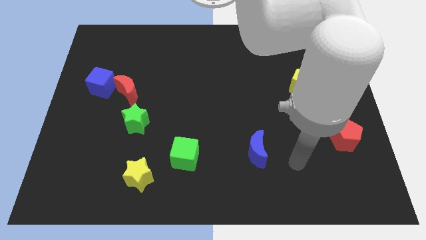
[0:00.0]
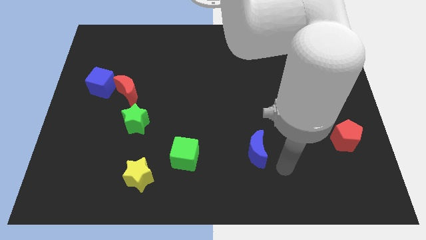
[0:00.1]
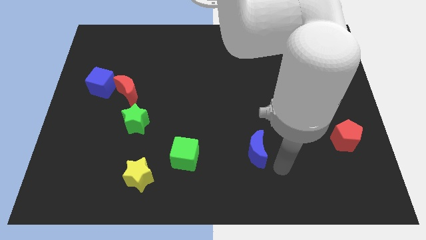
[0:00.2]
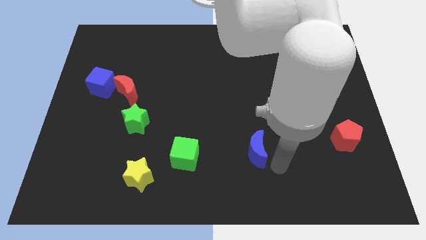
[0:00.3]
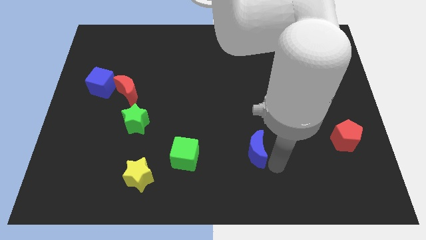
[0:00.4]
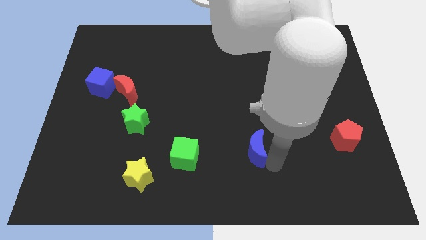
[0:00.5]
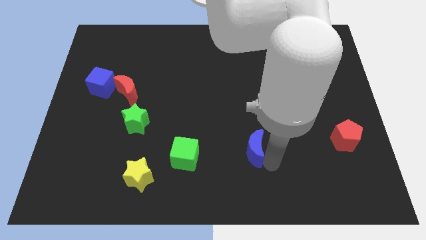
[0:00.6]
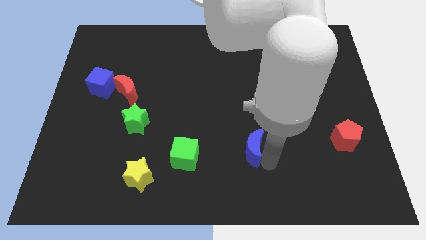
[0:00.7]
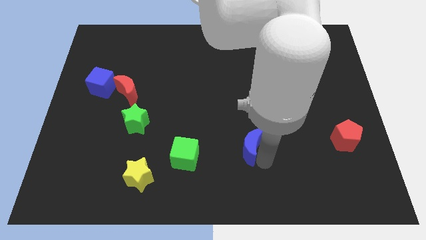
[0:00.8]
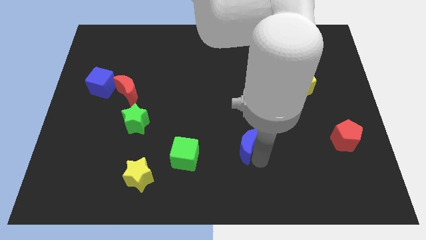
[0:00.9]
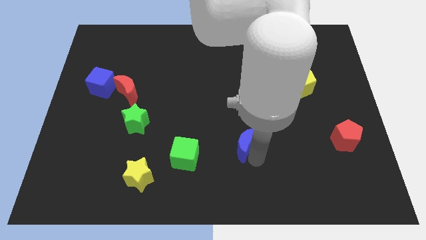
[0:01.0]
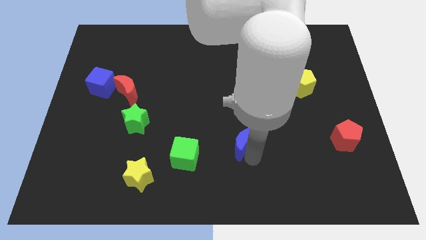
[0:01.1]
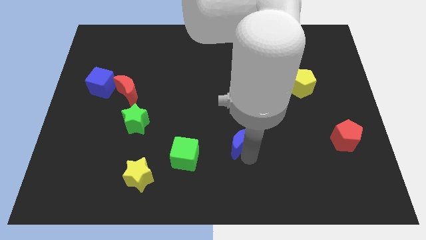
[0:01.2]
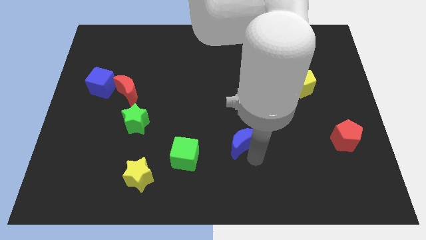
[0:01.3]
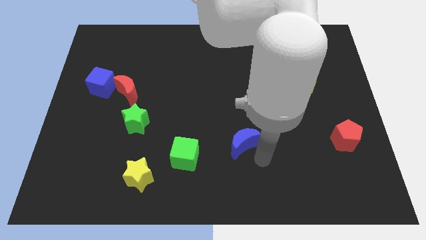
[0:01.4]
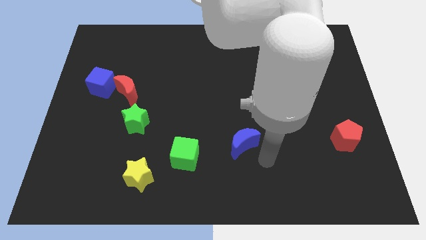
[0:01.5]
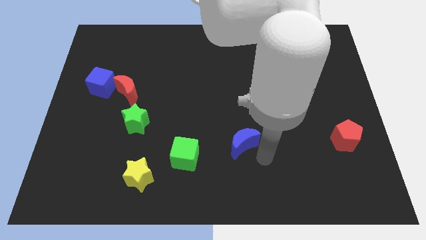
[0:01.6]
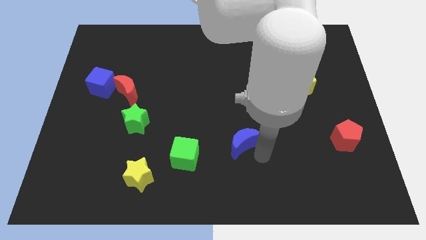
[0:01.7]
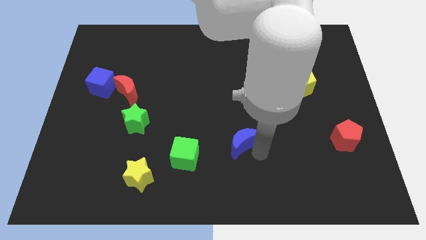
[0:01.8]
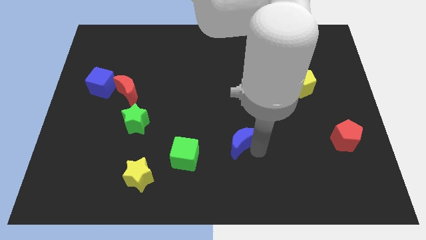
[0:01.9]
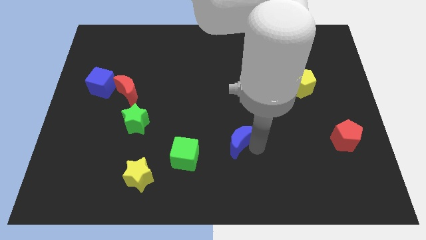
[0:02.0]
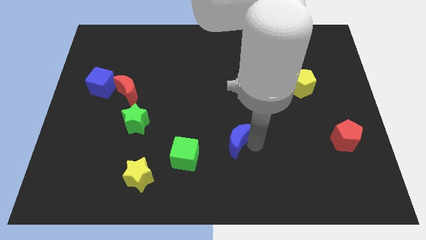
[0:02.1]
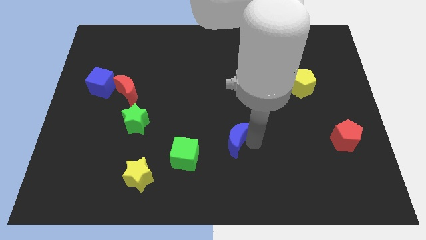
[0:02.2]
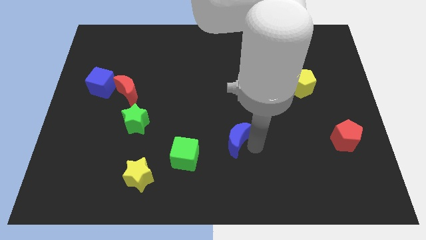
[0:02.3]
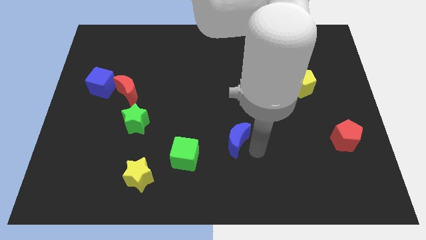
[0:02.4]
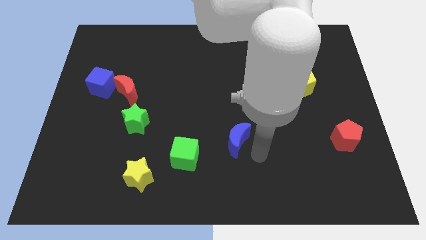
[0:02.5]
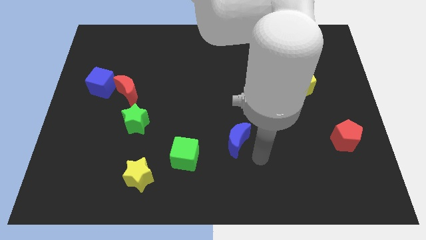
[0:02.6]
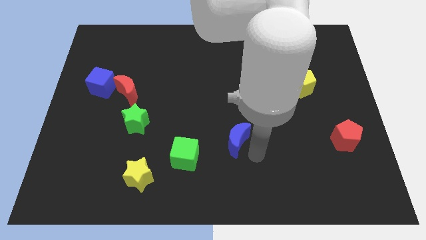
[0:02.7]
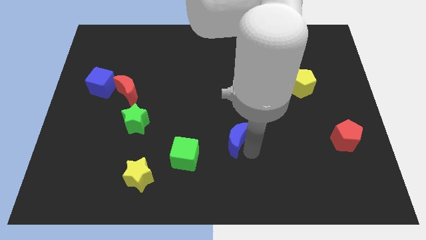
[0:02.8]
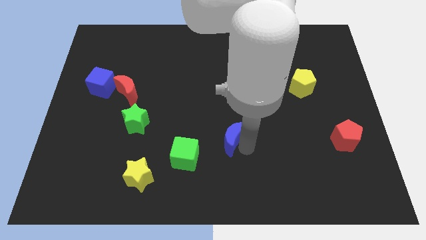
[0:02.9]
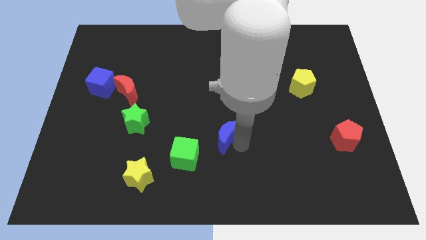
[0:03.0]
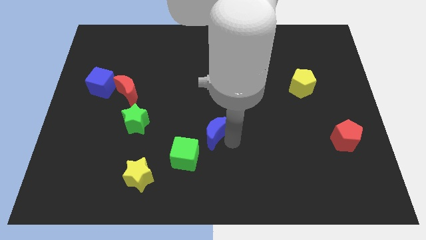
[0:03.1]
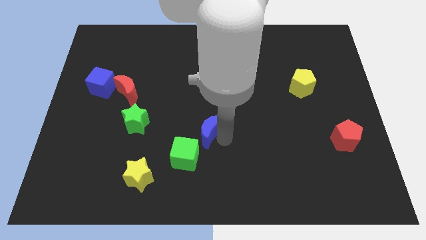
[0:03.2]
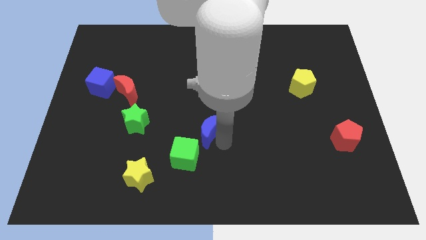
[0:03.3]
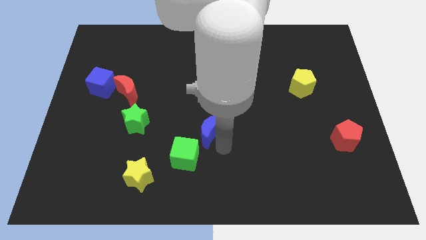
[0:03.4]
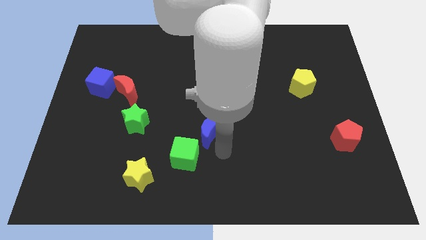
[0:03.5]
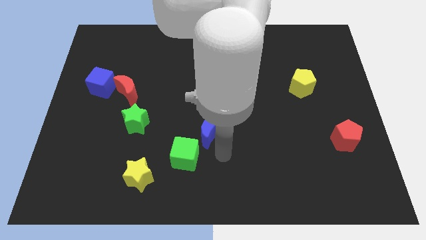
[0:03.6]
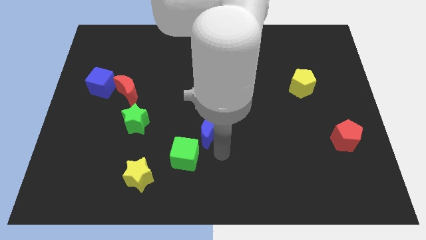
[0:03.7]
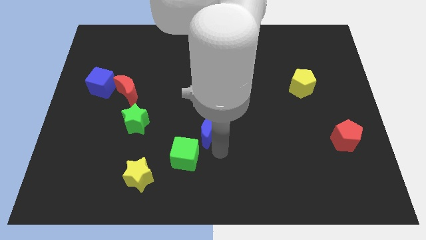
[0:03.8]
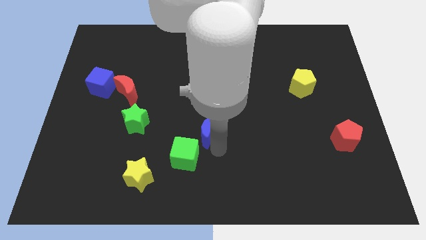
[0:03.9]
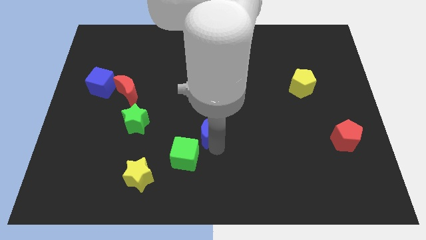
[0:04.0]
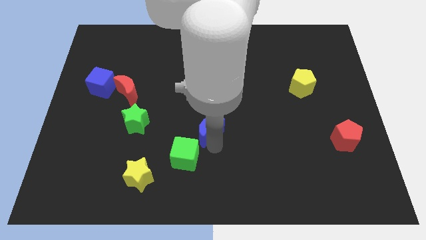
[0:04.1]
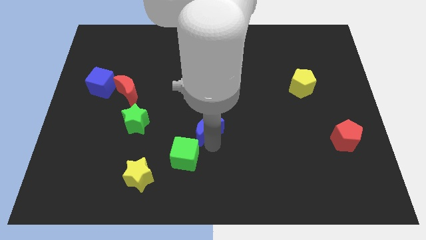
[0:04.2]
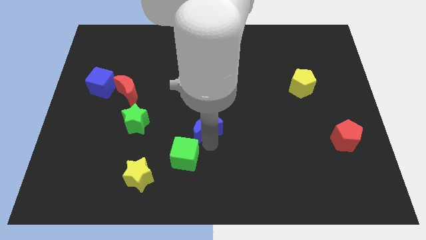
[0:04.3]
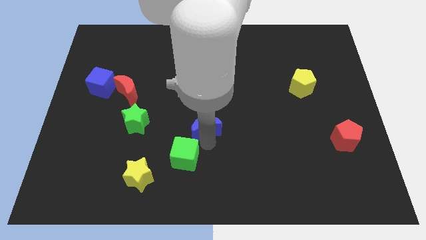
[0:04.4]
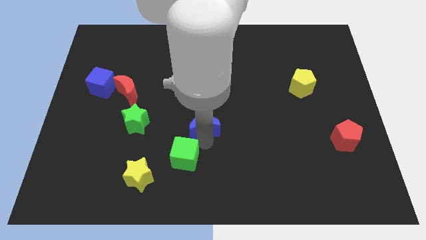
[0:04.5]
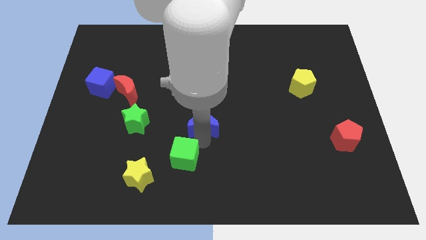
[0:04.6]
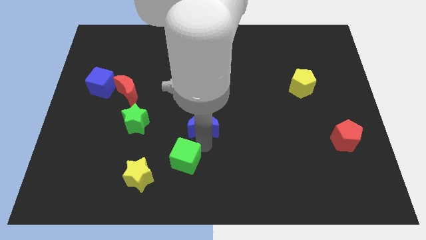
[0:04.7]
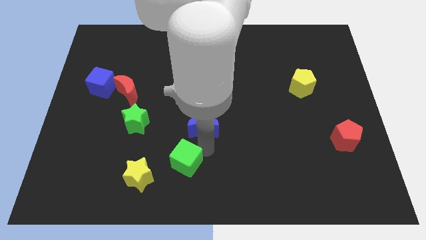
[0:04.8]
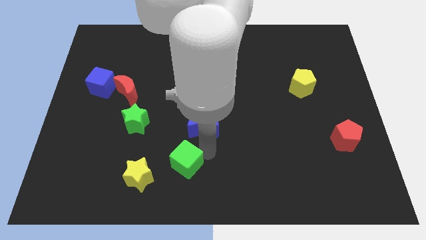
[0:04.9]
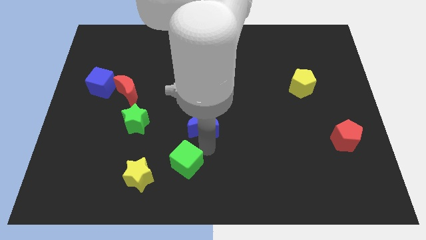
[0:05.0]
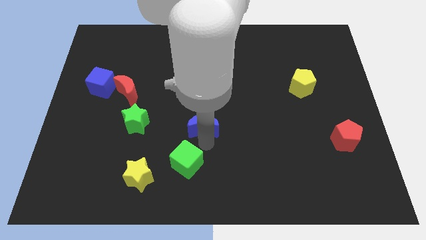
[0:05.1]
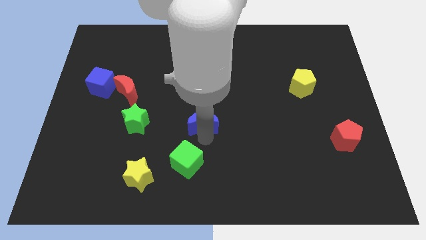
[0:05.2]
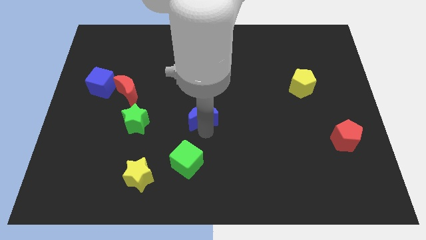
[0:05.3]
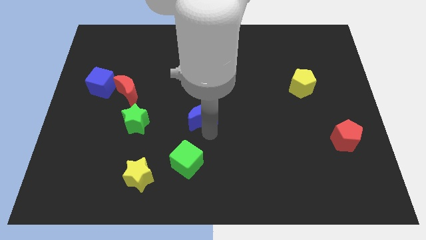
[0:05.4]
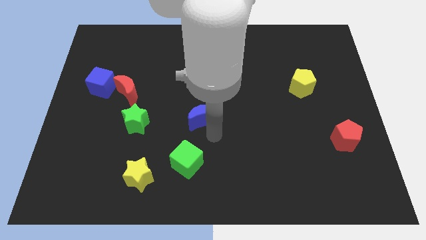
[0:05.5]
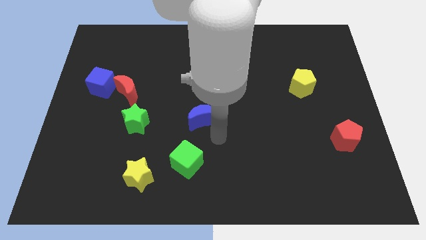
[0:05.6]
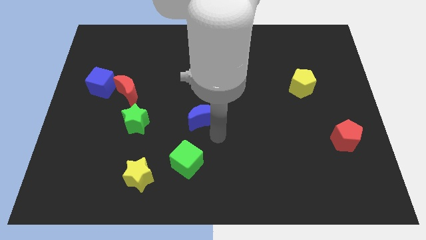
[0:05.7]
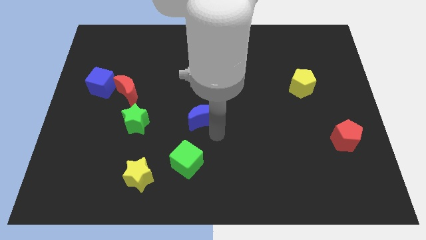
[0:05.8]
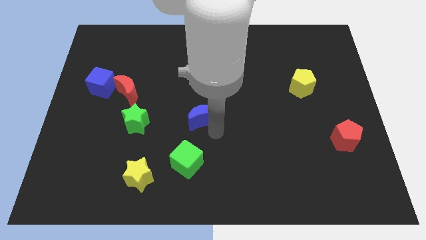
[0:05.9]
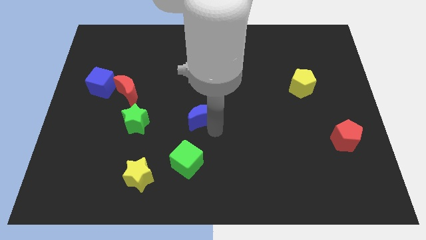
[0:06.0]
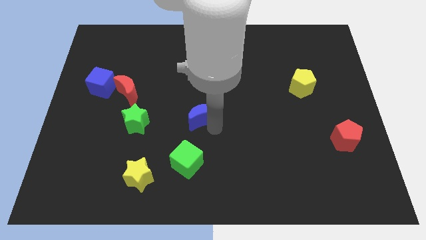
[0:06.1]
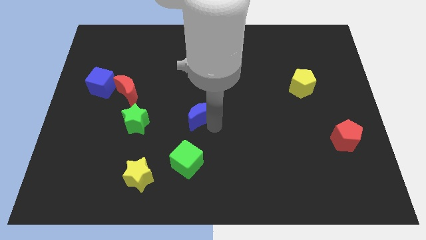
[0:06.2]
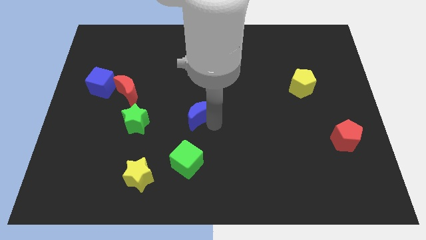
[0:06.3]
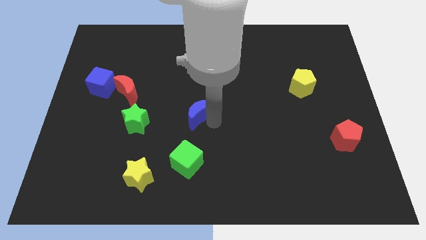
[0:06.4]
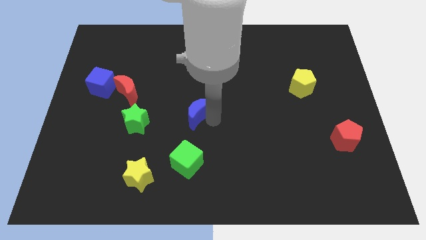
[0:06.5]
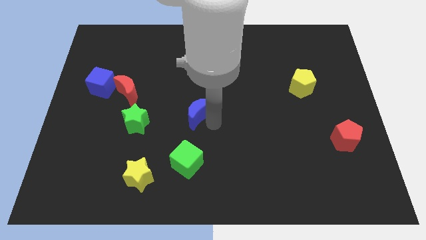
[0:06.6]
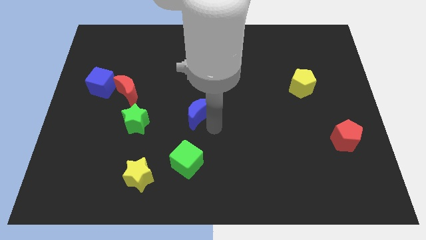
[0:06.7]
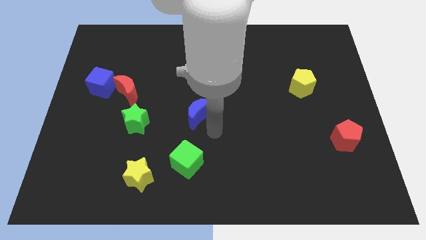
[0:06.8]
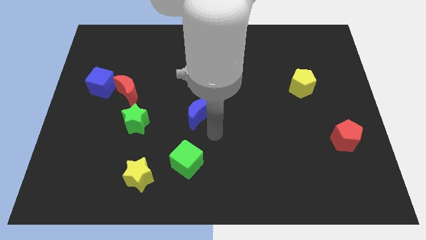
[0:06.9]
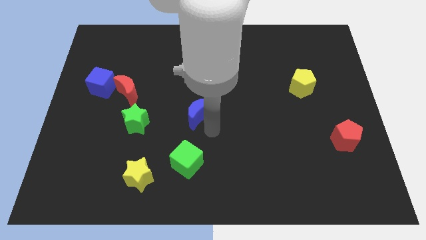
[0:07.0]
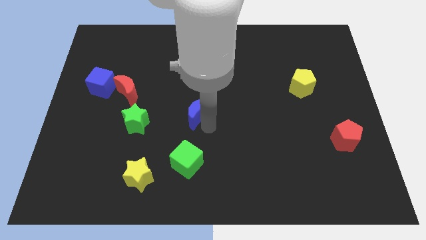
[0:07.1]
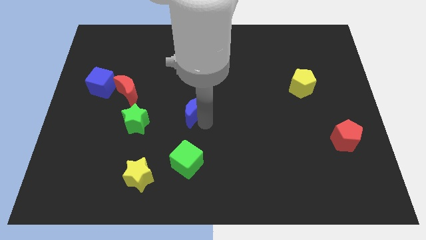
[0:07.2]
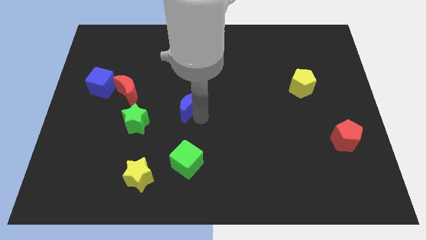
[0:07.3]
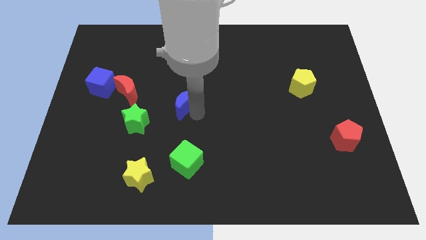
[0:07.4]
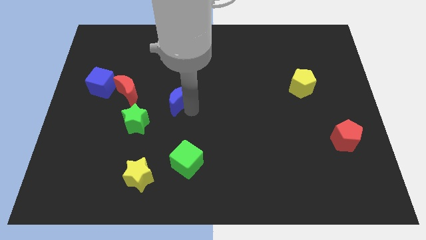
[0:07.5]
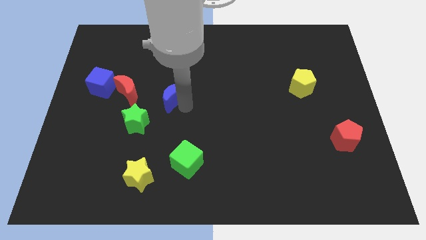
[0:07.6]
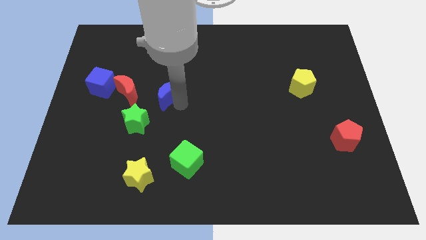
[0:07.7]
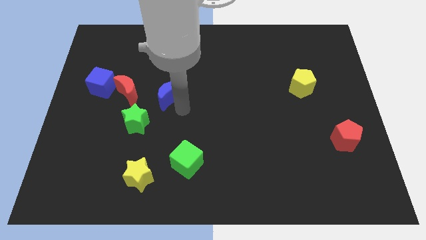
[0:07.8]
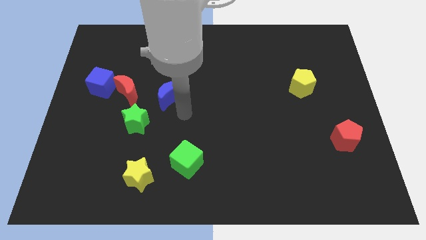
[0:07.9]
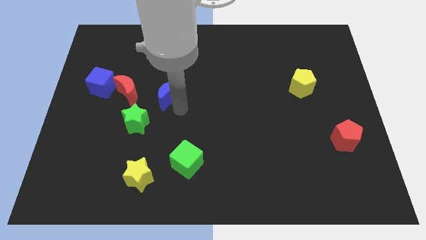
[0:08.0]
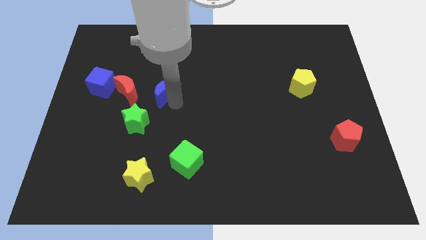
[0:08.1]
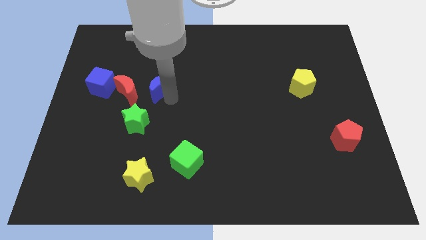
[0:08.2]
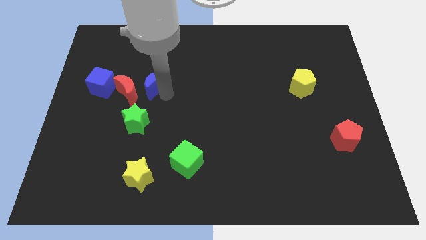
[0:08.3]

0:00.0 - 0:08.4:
slide the blue moon to the top right side of the red moon
